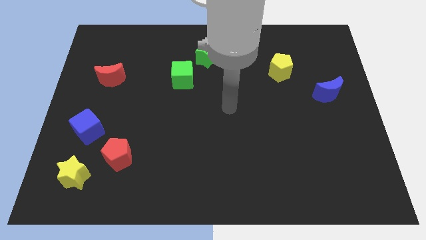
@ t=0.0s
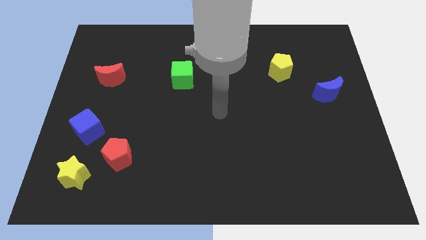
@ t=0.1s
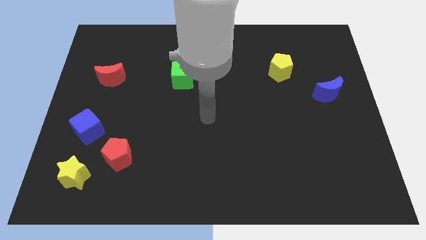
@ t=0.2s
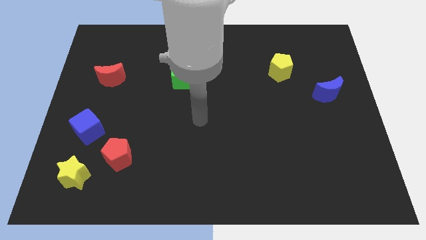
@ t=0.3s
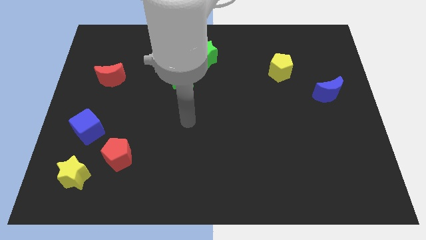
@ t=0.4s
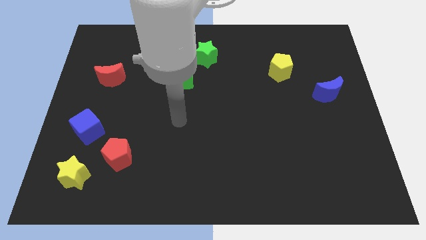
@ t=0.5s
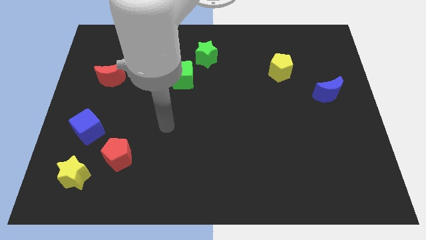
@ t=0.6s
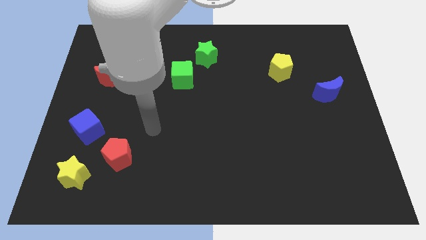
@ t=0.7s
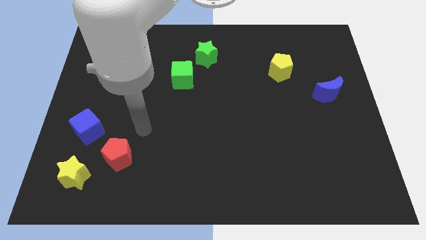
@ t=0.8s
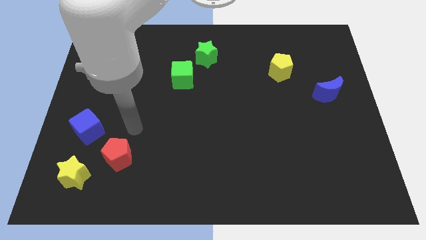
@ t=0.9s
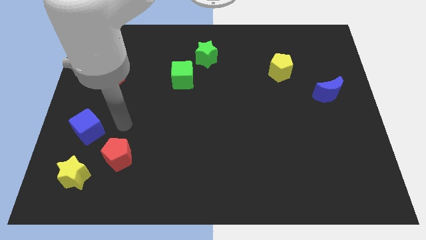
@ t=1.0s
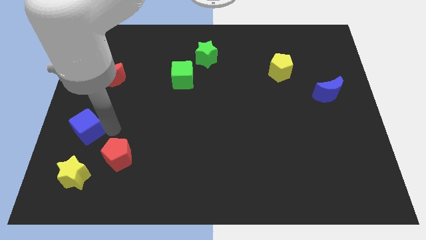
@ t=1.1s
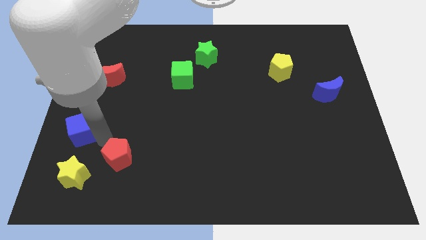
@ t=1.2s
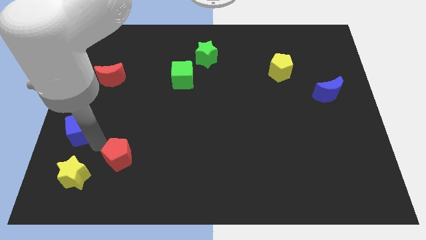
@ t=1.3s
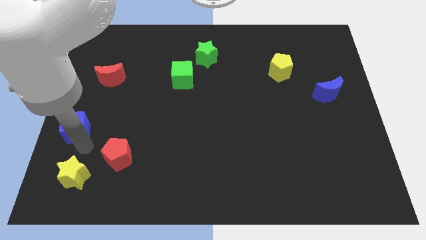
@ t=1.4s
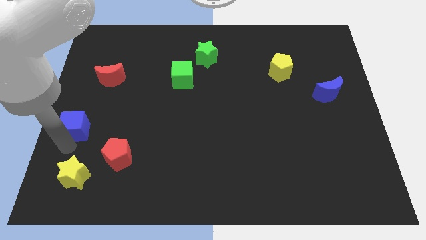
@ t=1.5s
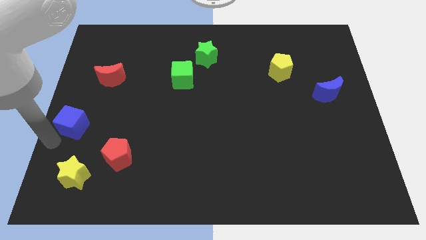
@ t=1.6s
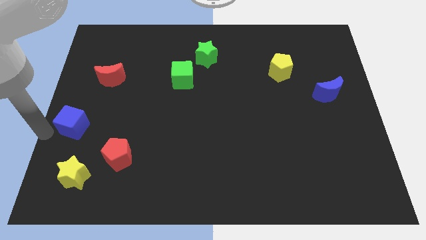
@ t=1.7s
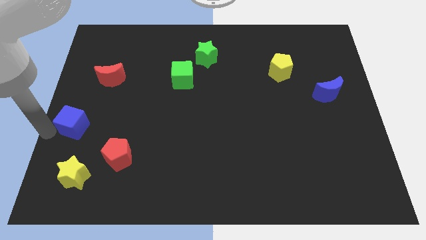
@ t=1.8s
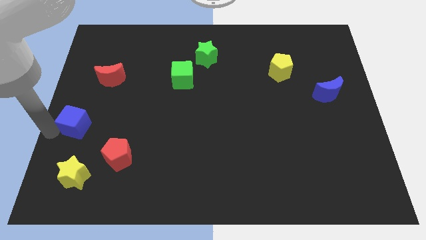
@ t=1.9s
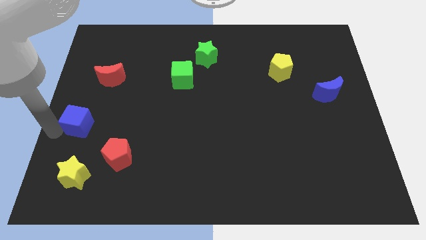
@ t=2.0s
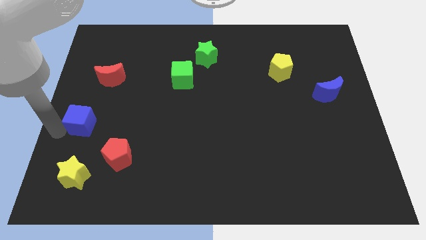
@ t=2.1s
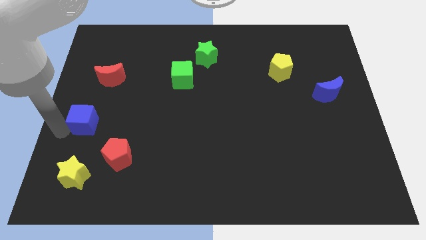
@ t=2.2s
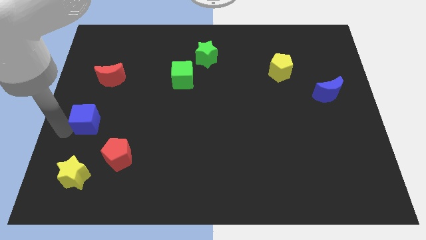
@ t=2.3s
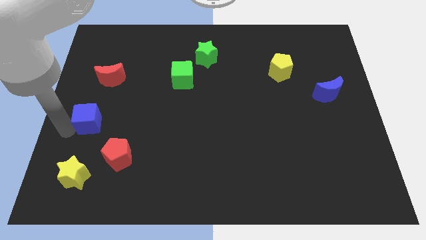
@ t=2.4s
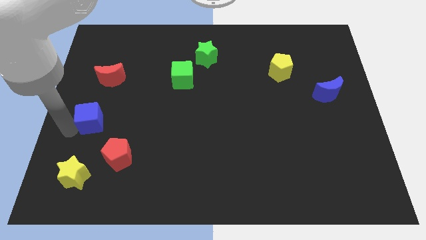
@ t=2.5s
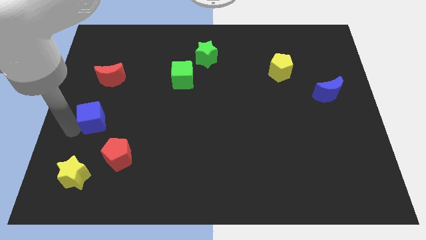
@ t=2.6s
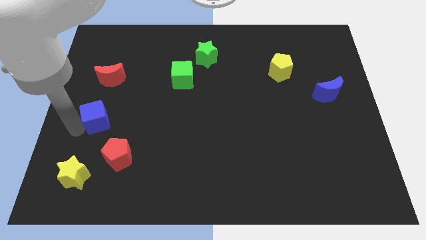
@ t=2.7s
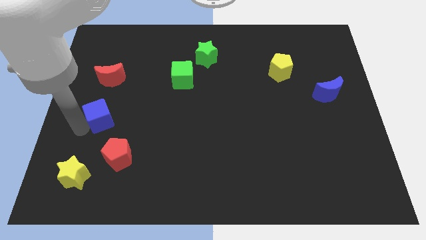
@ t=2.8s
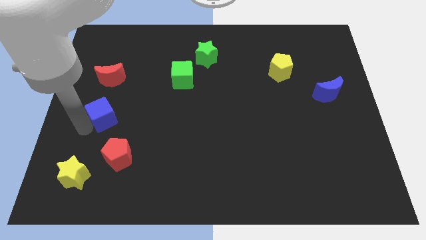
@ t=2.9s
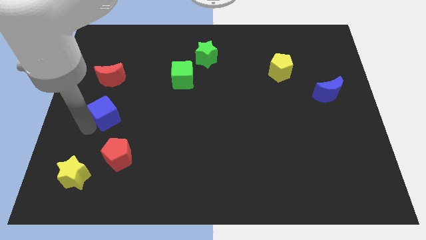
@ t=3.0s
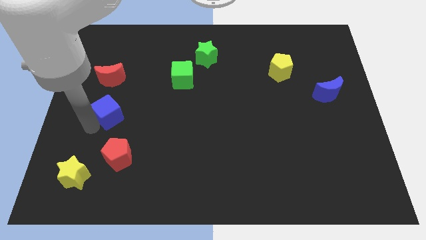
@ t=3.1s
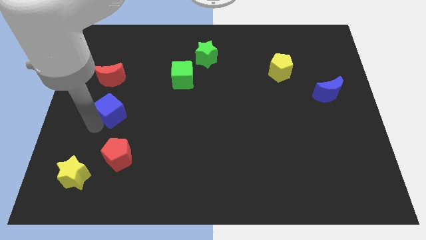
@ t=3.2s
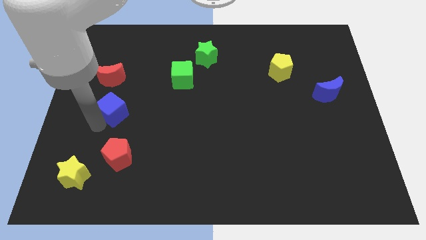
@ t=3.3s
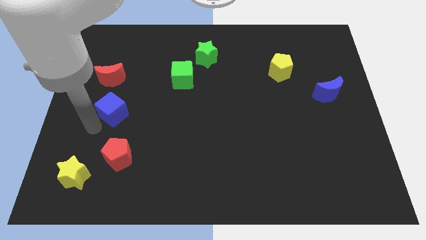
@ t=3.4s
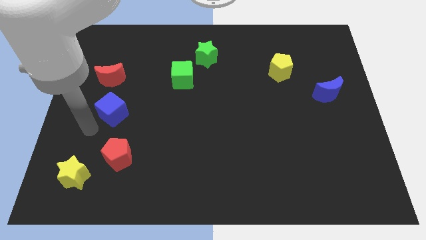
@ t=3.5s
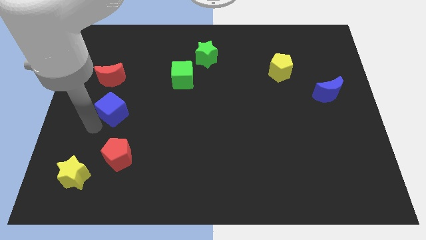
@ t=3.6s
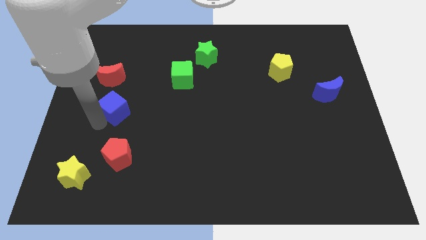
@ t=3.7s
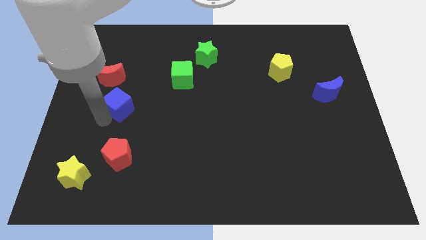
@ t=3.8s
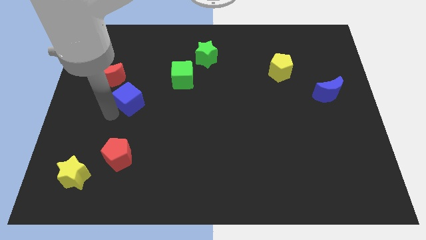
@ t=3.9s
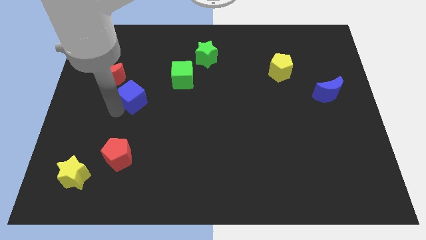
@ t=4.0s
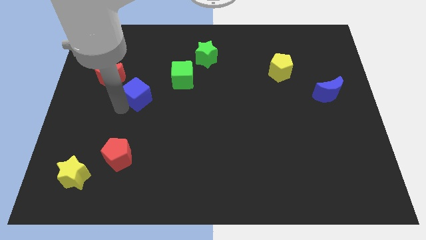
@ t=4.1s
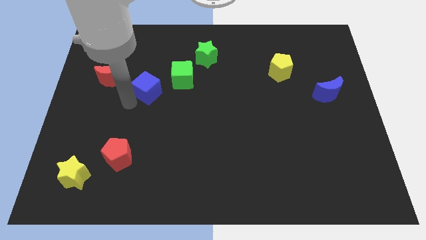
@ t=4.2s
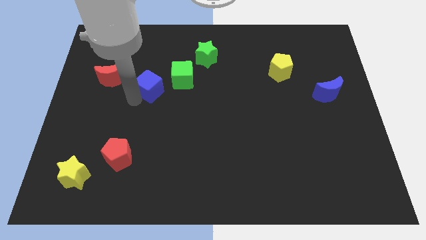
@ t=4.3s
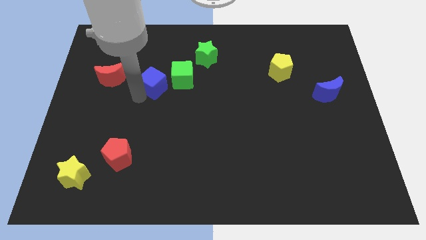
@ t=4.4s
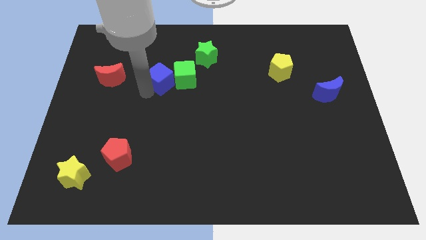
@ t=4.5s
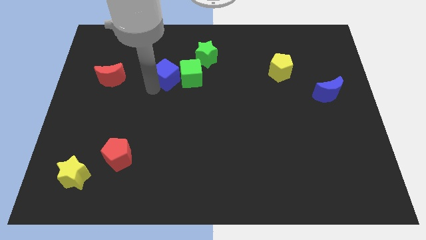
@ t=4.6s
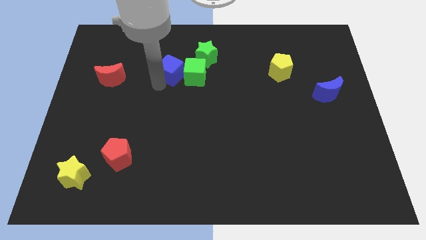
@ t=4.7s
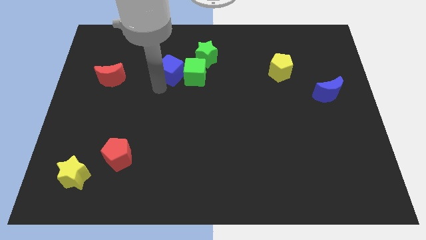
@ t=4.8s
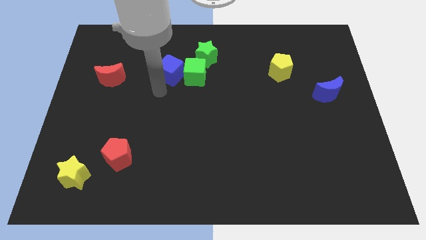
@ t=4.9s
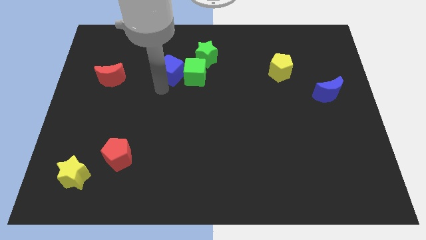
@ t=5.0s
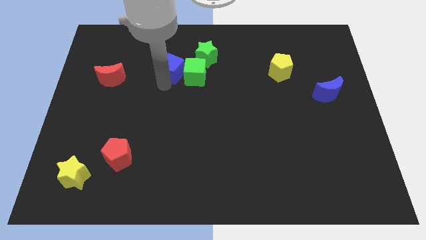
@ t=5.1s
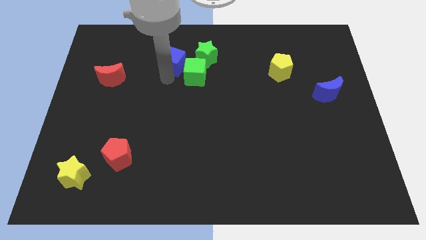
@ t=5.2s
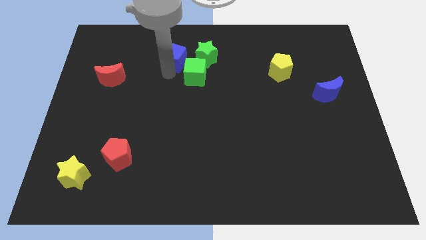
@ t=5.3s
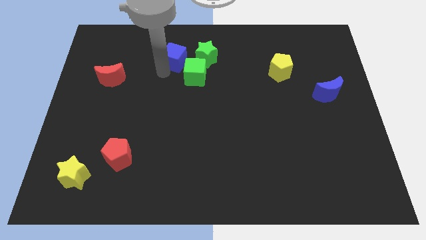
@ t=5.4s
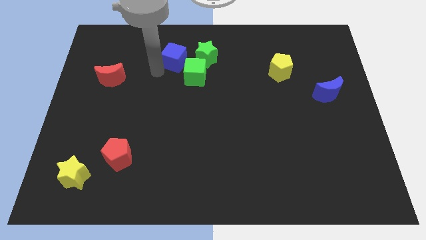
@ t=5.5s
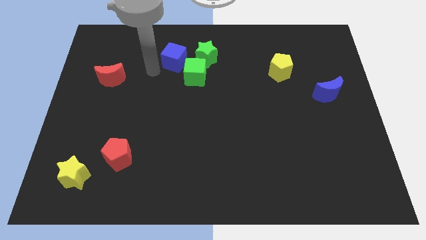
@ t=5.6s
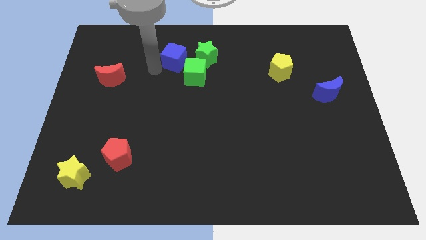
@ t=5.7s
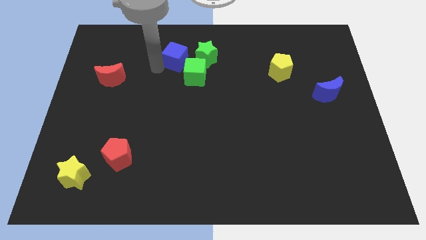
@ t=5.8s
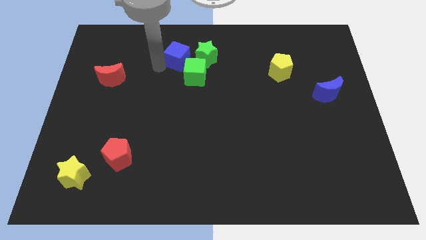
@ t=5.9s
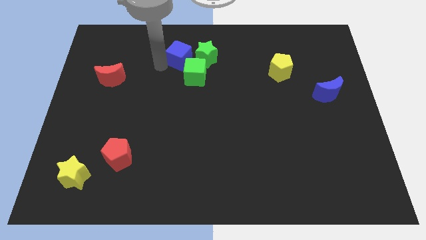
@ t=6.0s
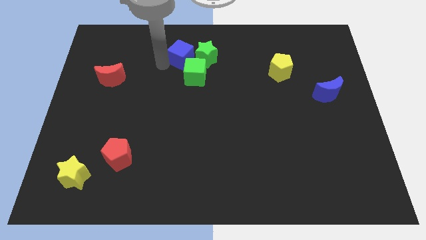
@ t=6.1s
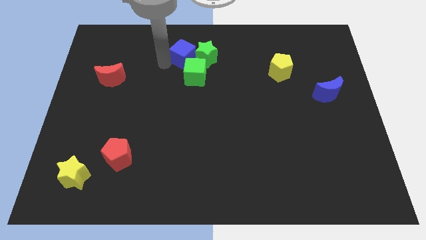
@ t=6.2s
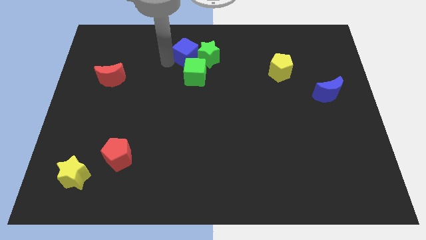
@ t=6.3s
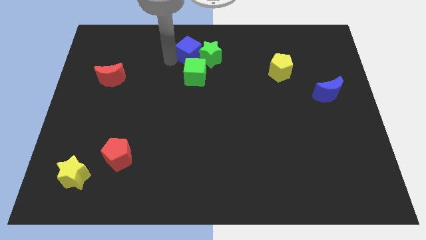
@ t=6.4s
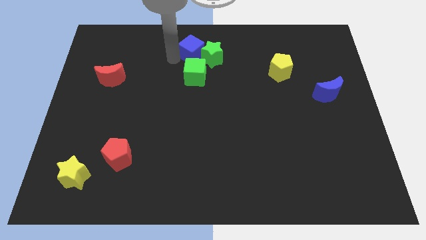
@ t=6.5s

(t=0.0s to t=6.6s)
put the blue cube to the top
